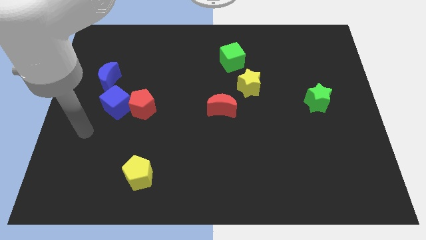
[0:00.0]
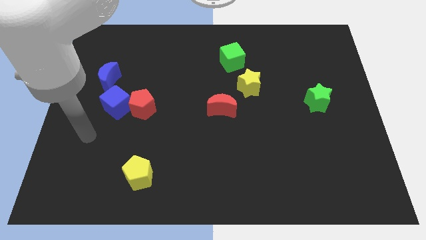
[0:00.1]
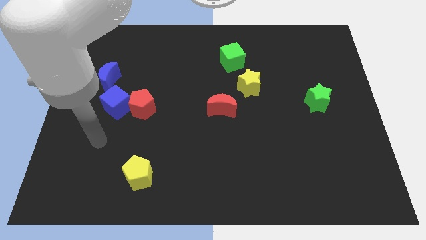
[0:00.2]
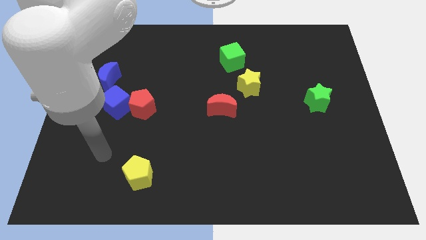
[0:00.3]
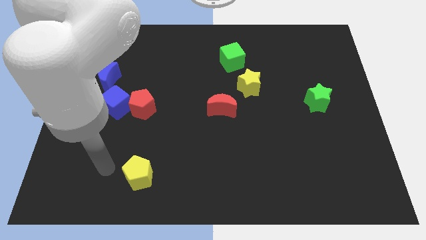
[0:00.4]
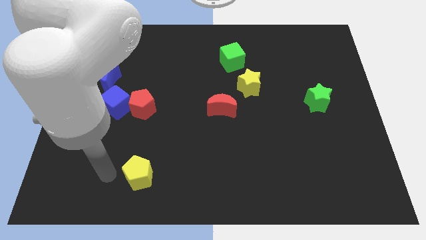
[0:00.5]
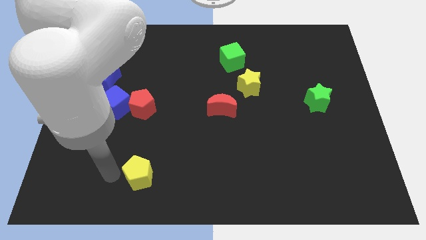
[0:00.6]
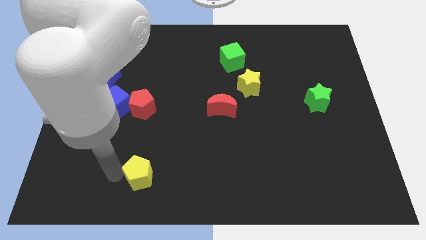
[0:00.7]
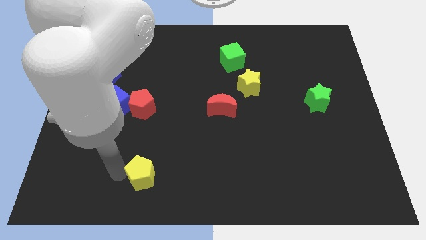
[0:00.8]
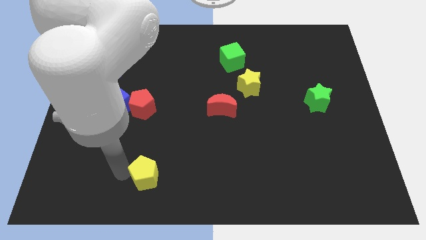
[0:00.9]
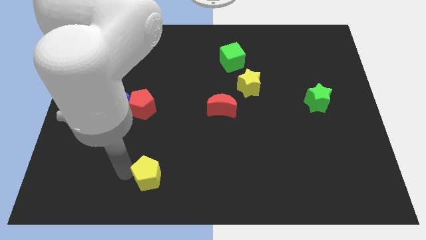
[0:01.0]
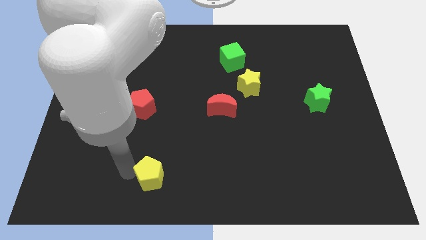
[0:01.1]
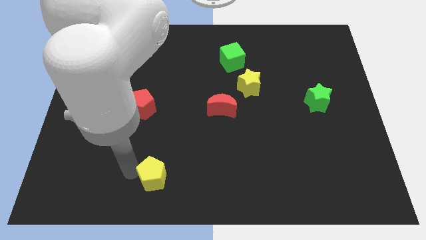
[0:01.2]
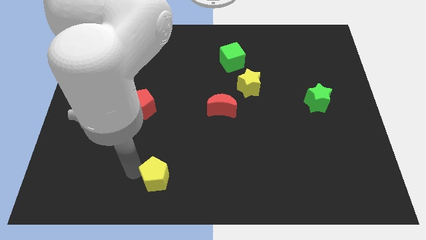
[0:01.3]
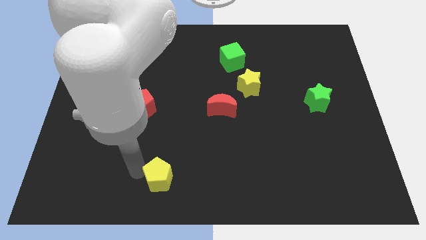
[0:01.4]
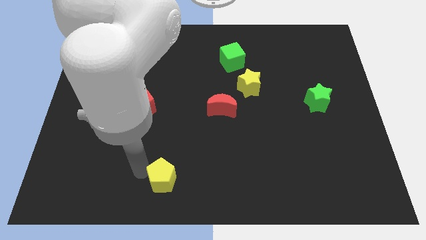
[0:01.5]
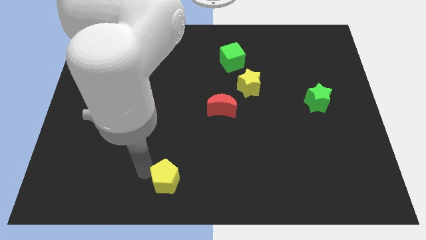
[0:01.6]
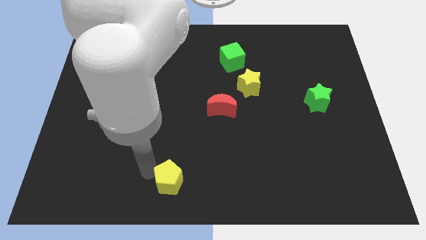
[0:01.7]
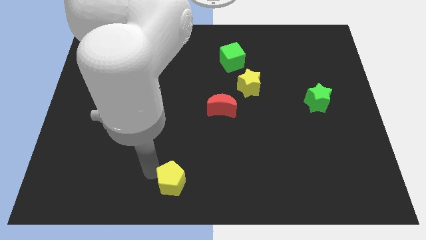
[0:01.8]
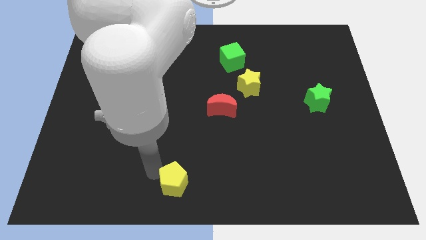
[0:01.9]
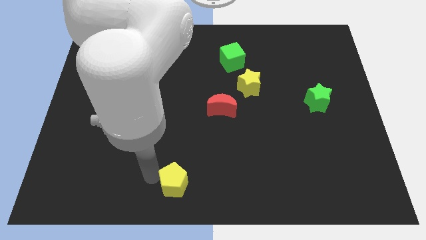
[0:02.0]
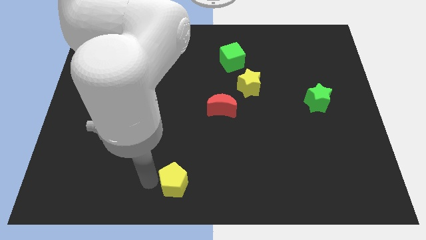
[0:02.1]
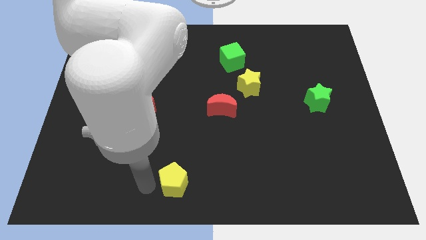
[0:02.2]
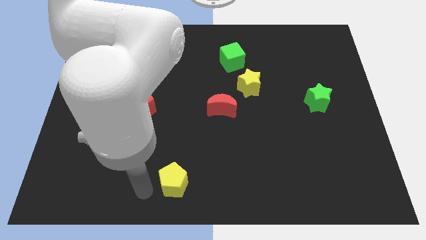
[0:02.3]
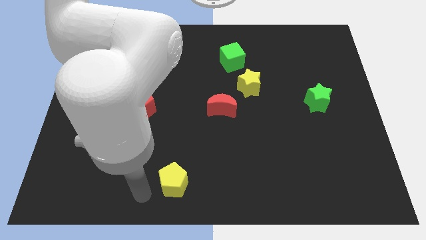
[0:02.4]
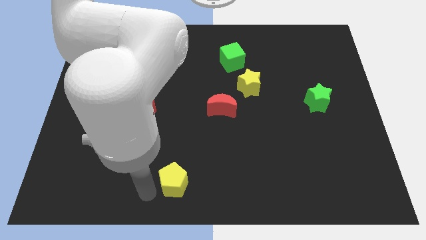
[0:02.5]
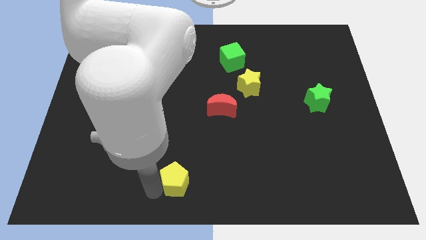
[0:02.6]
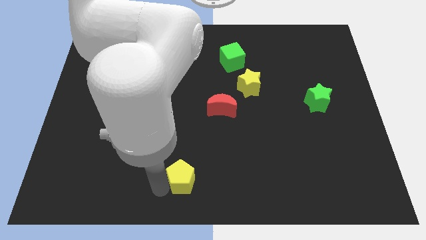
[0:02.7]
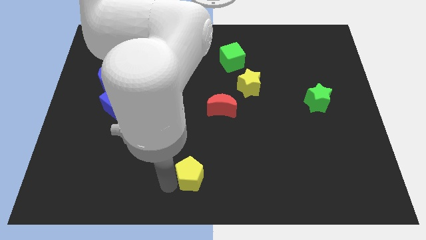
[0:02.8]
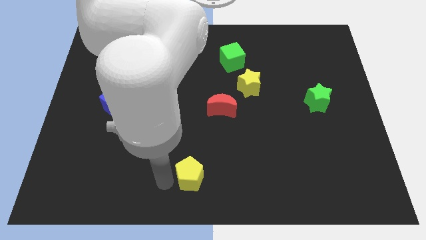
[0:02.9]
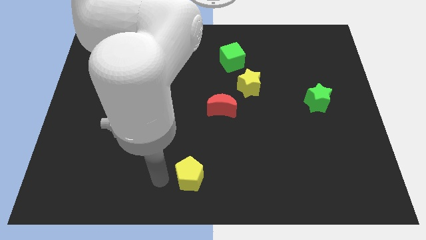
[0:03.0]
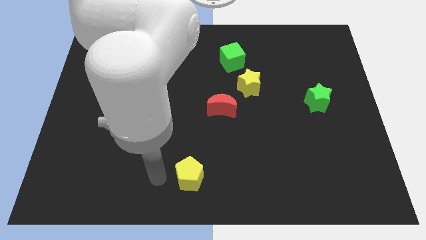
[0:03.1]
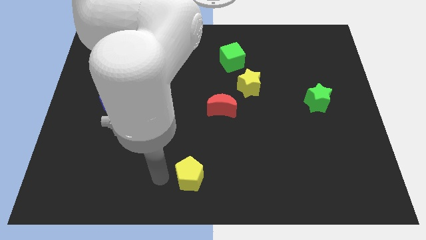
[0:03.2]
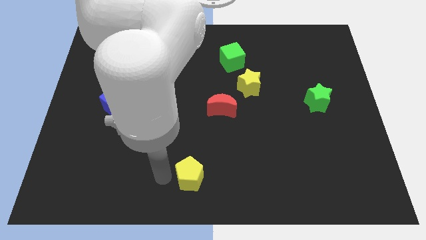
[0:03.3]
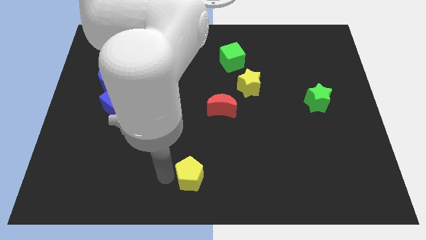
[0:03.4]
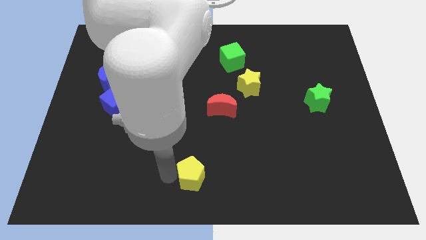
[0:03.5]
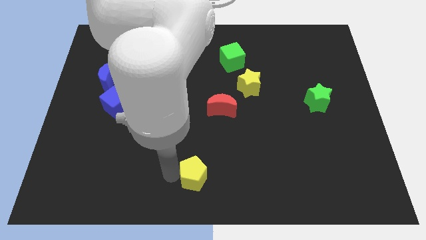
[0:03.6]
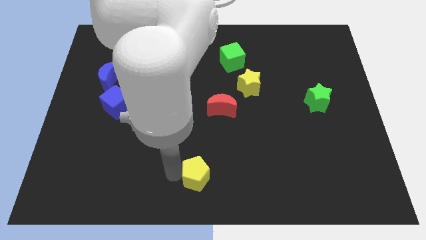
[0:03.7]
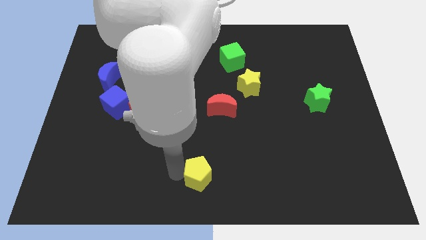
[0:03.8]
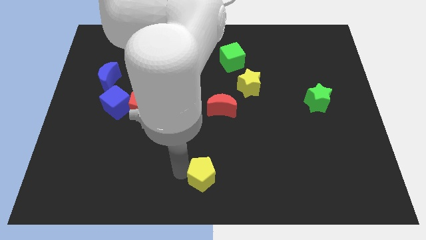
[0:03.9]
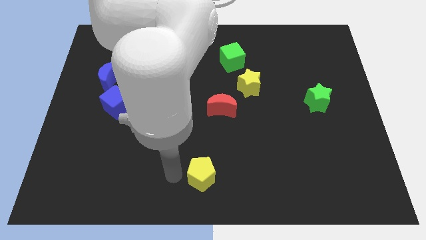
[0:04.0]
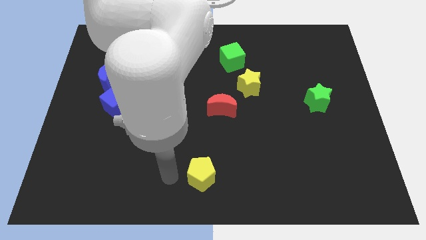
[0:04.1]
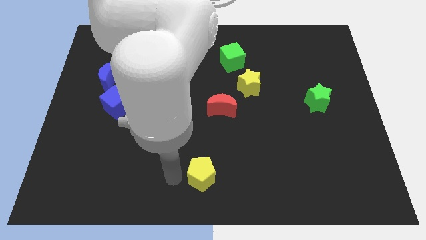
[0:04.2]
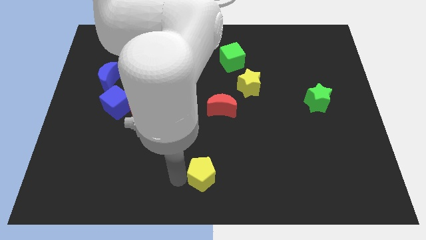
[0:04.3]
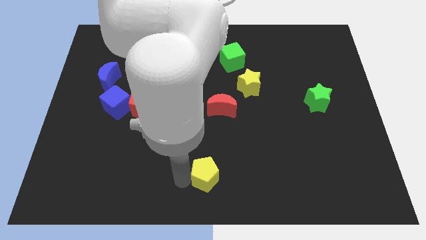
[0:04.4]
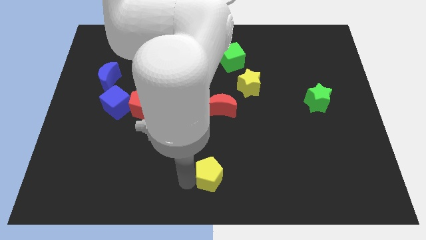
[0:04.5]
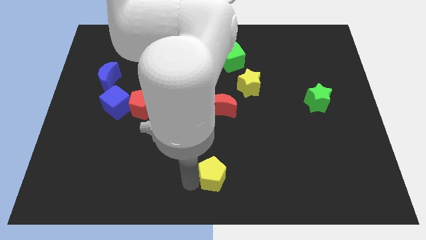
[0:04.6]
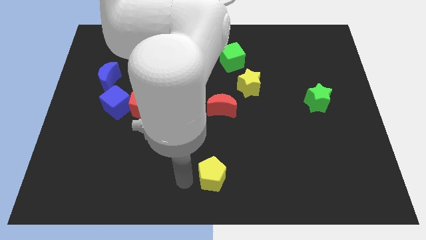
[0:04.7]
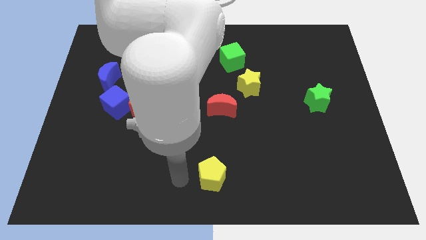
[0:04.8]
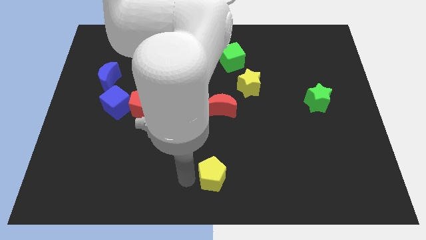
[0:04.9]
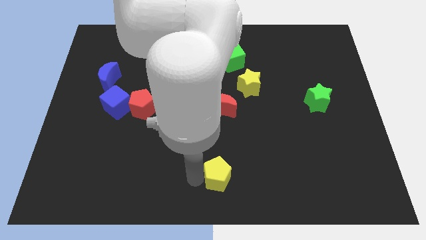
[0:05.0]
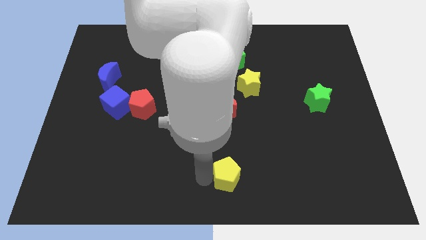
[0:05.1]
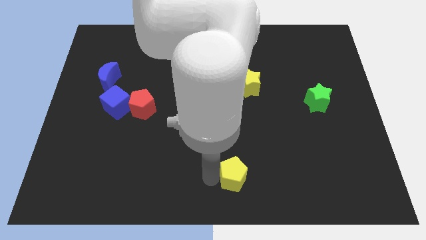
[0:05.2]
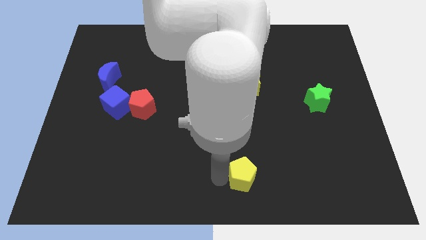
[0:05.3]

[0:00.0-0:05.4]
push the yellow pentagon right

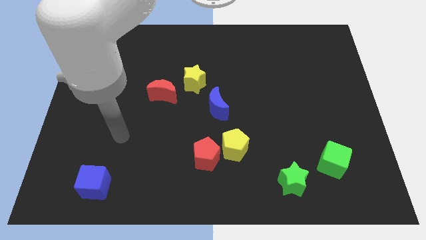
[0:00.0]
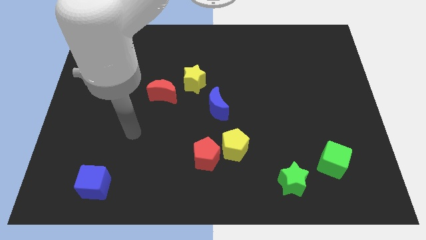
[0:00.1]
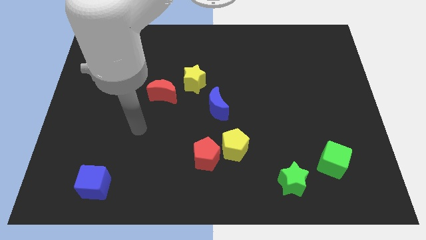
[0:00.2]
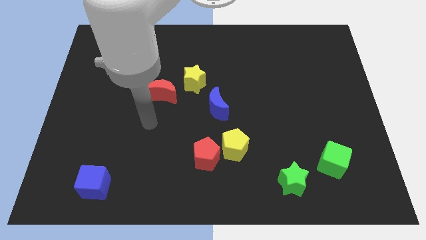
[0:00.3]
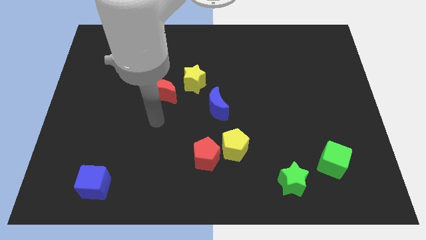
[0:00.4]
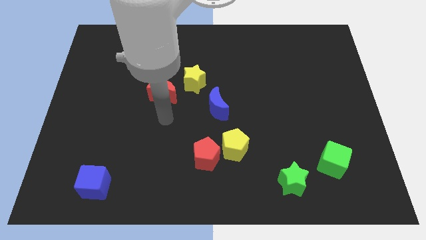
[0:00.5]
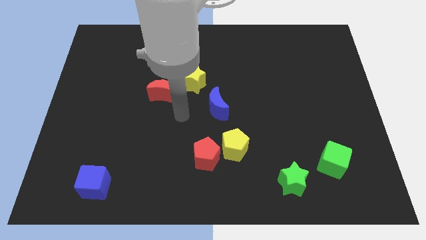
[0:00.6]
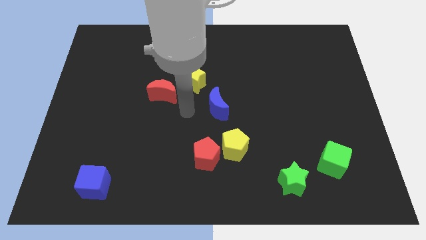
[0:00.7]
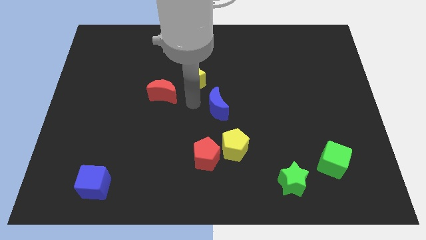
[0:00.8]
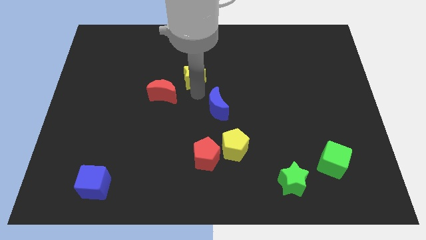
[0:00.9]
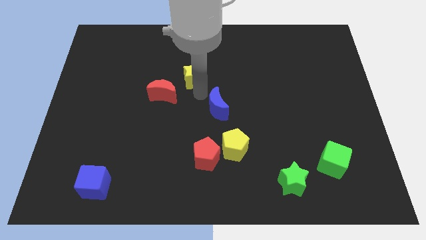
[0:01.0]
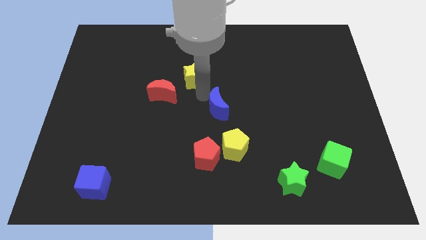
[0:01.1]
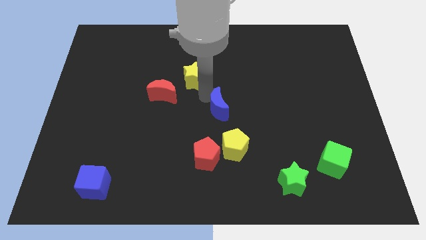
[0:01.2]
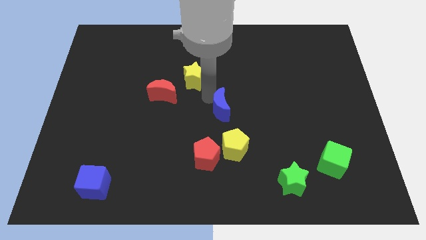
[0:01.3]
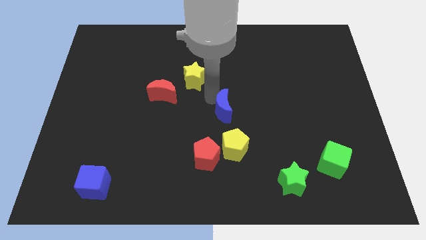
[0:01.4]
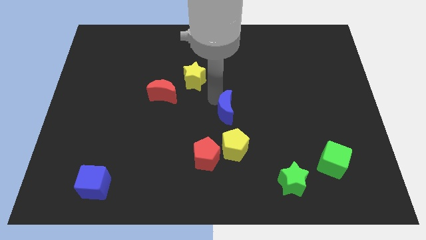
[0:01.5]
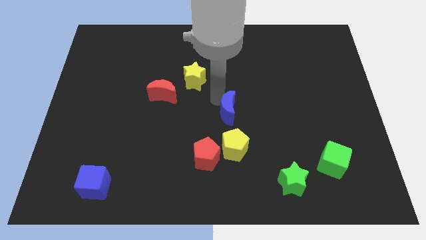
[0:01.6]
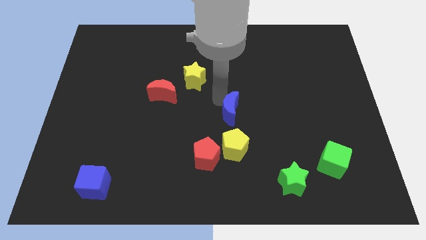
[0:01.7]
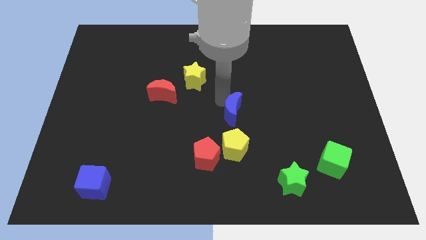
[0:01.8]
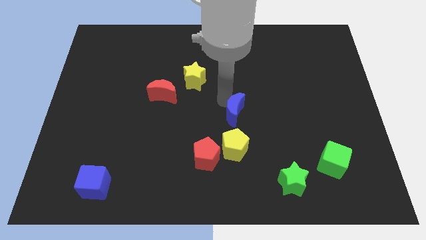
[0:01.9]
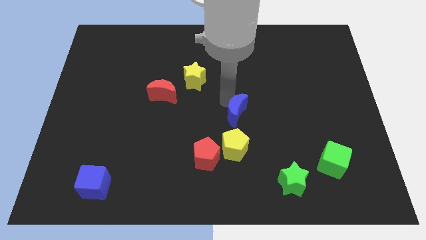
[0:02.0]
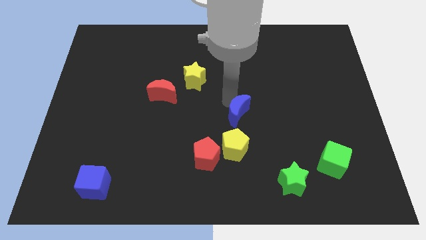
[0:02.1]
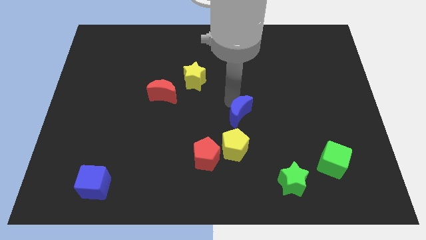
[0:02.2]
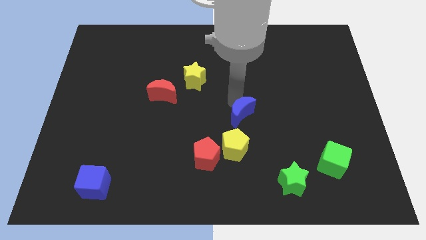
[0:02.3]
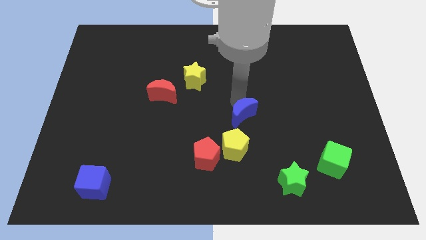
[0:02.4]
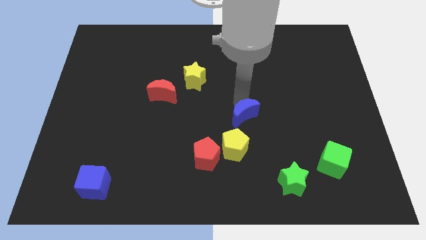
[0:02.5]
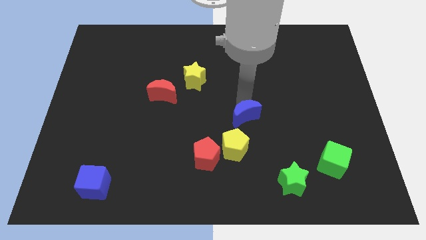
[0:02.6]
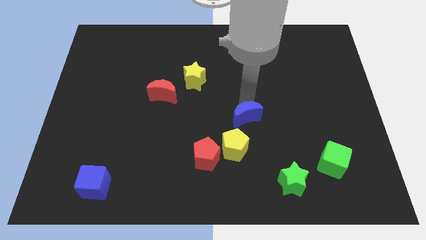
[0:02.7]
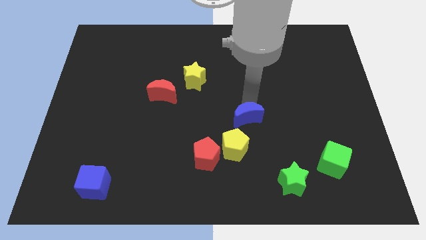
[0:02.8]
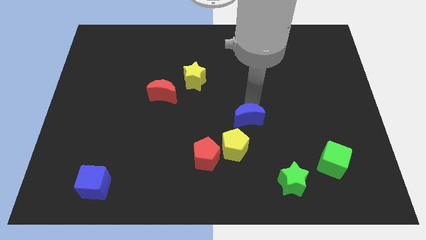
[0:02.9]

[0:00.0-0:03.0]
push the blue moon downwards and to the right diagonally slightly
